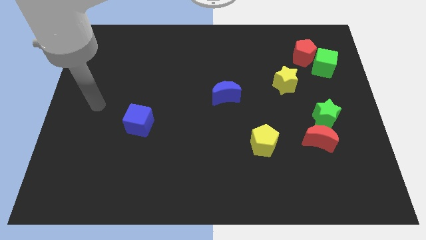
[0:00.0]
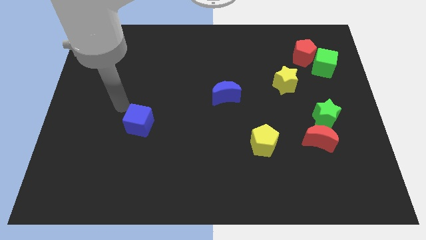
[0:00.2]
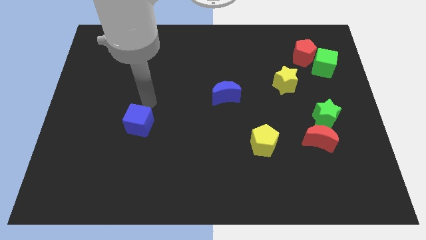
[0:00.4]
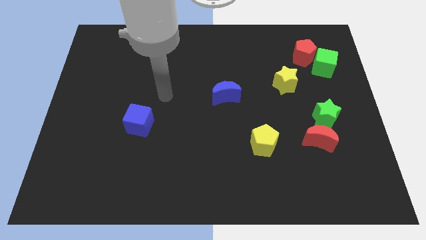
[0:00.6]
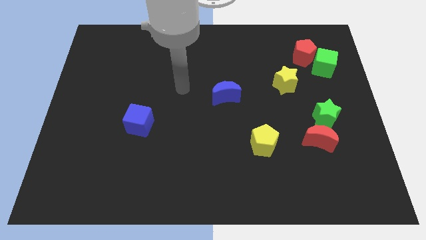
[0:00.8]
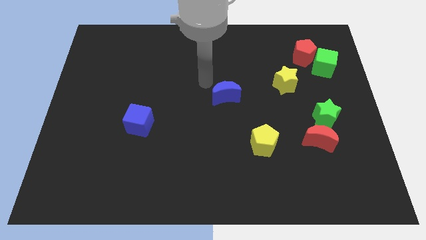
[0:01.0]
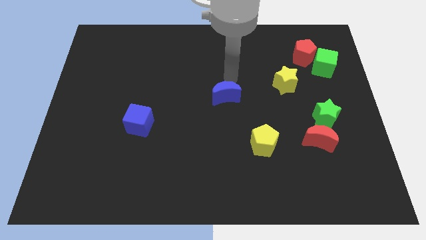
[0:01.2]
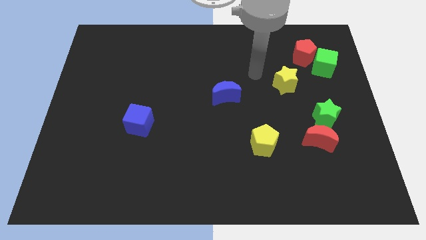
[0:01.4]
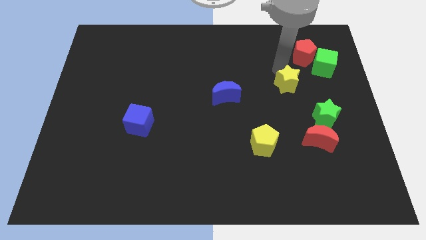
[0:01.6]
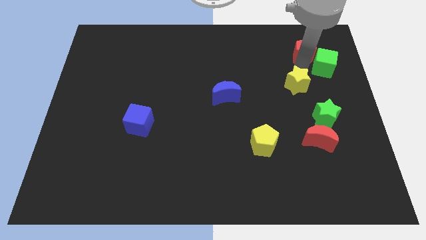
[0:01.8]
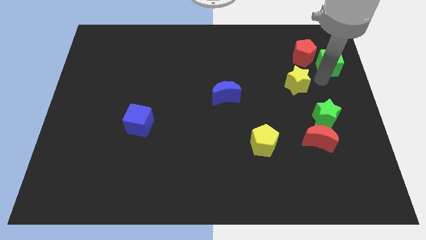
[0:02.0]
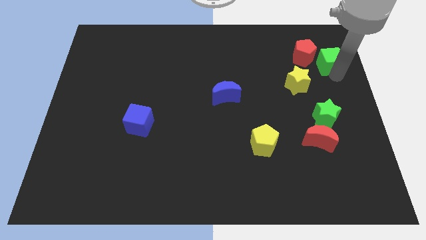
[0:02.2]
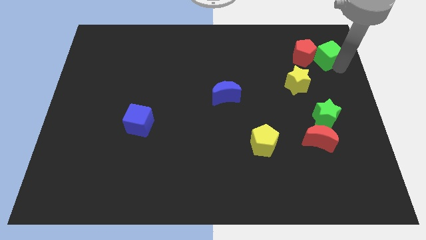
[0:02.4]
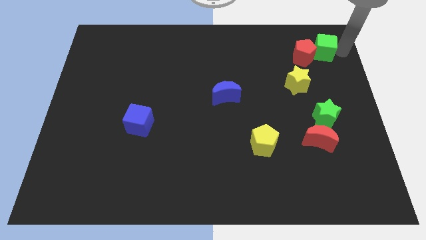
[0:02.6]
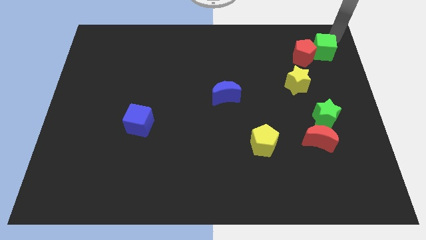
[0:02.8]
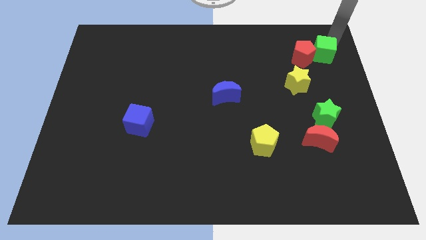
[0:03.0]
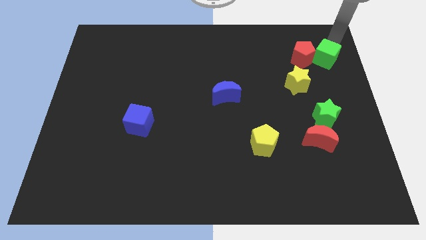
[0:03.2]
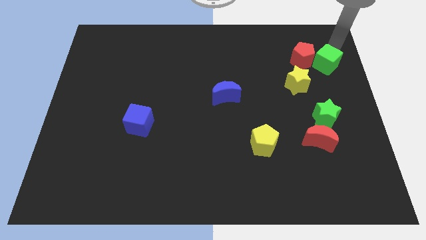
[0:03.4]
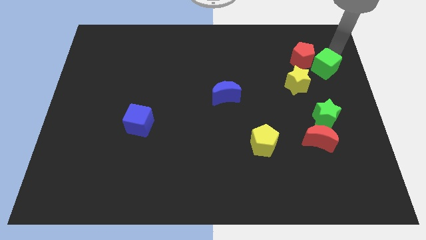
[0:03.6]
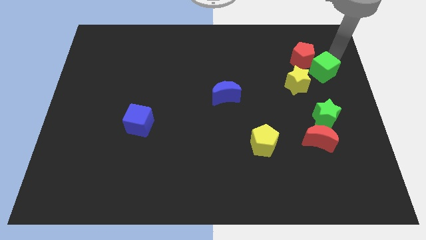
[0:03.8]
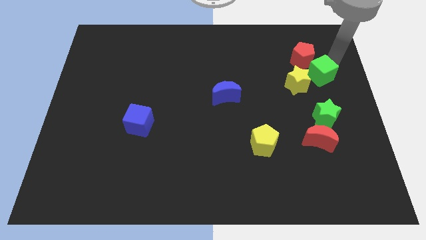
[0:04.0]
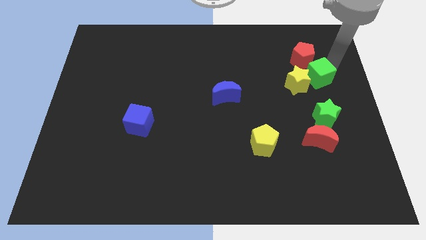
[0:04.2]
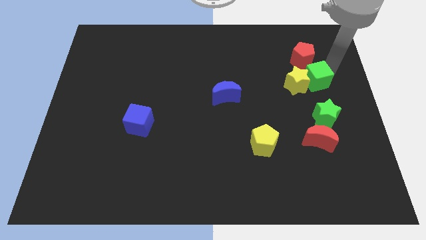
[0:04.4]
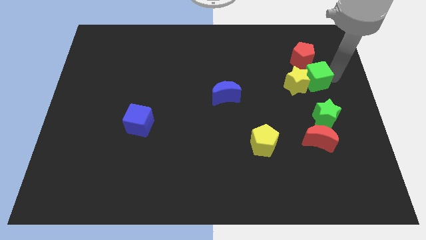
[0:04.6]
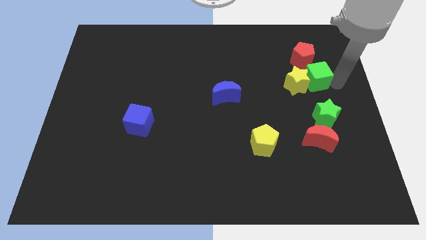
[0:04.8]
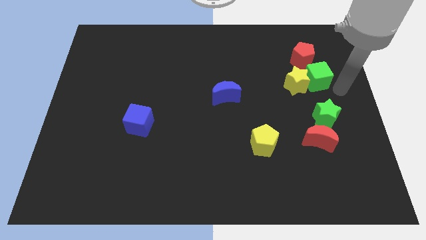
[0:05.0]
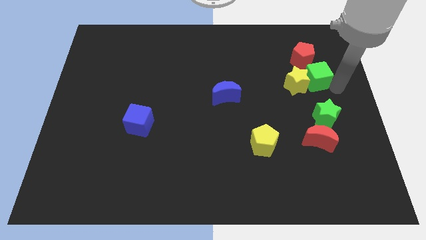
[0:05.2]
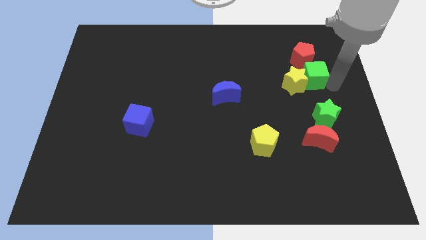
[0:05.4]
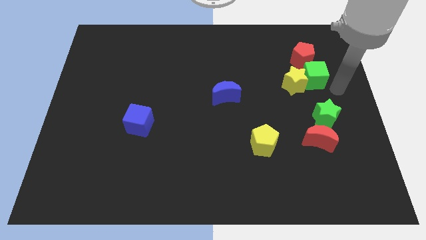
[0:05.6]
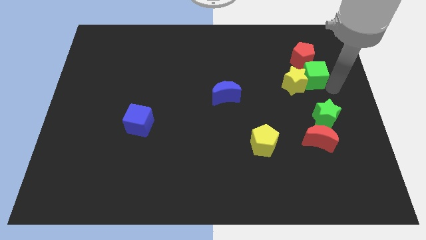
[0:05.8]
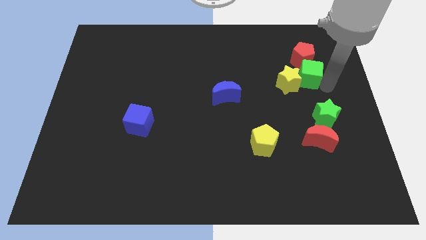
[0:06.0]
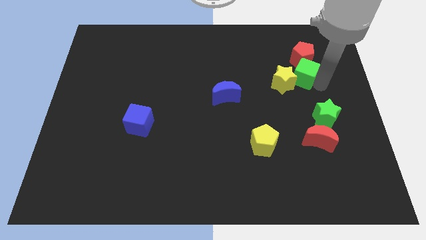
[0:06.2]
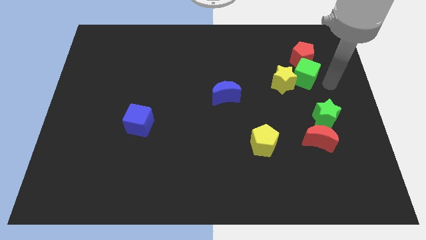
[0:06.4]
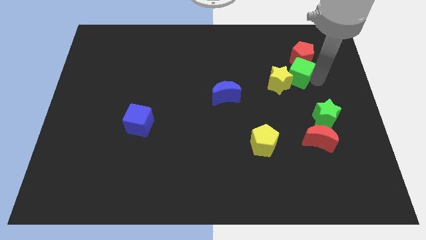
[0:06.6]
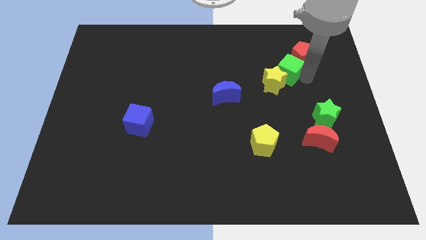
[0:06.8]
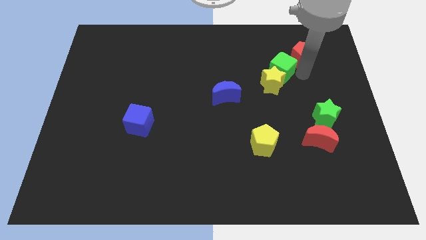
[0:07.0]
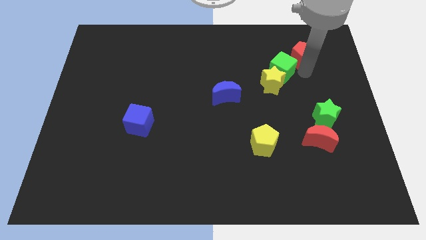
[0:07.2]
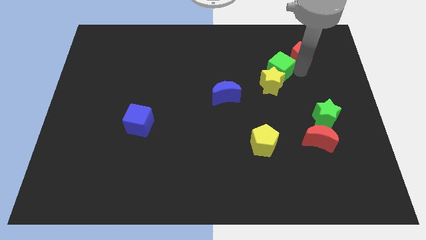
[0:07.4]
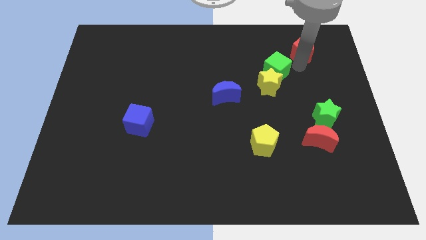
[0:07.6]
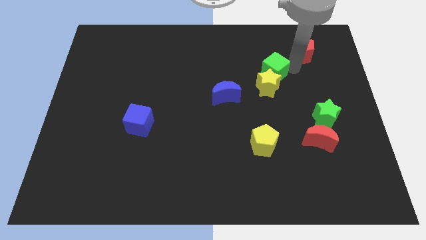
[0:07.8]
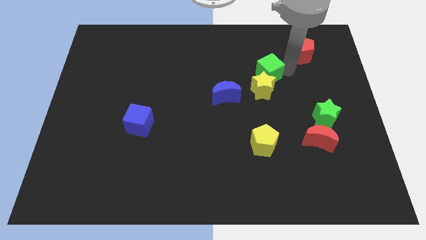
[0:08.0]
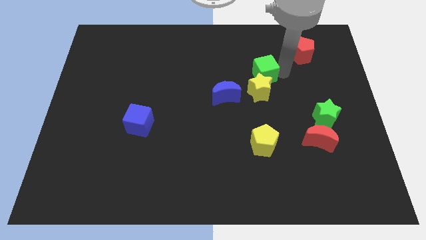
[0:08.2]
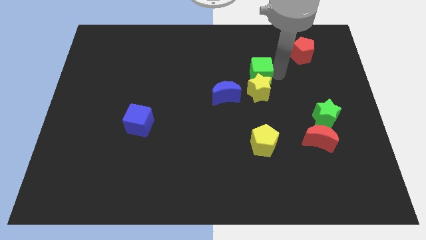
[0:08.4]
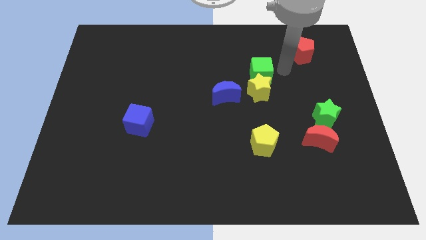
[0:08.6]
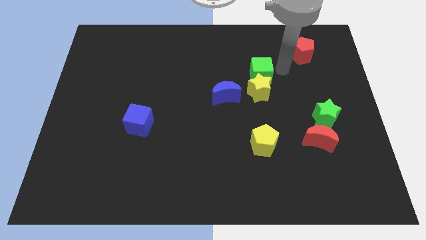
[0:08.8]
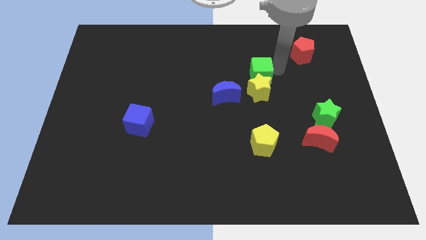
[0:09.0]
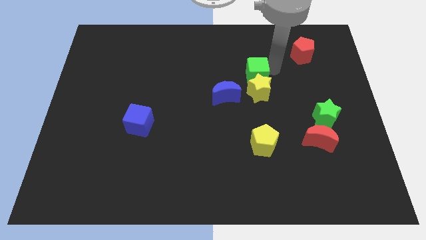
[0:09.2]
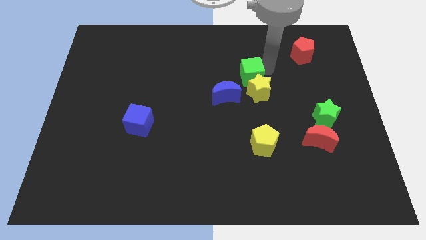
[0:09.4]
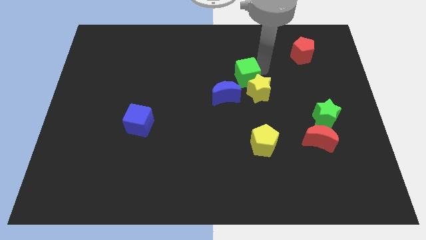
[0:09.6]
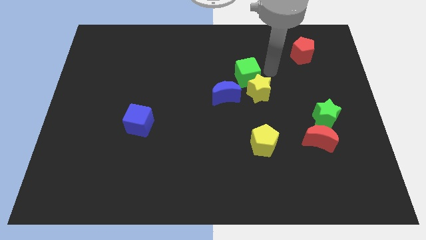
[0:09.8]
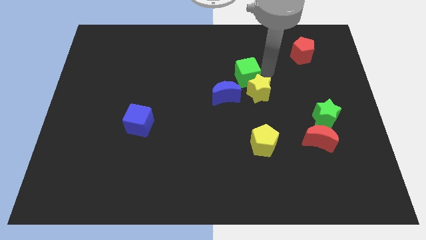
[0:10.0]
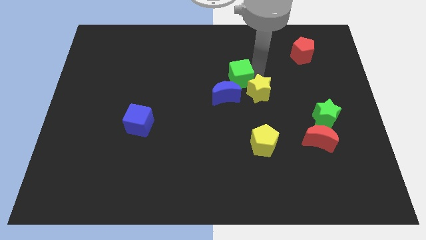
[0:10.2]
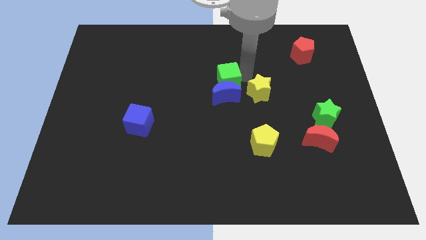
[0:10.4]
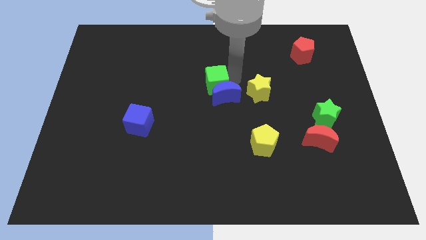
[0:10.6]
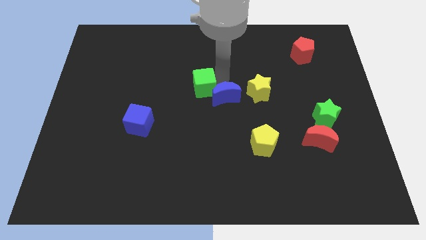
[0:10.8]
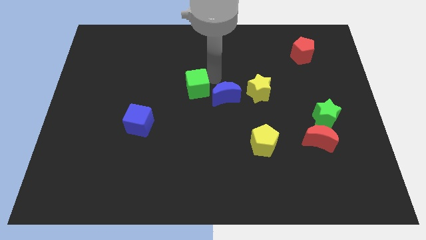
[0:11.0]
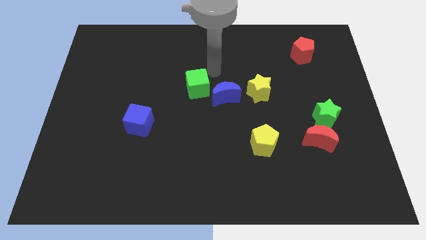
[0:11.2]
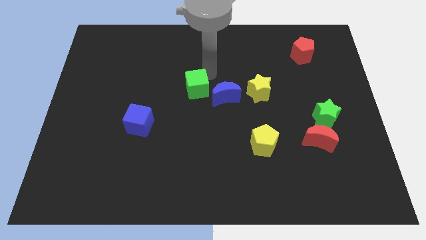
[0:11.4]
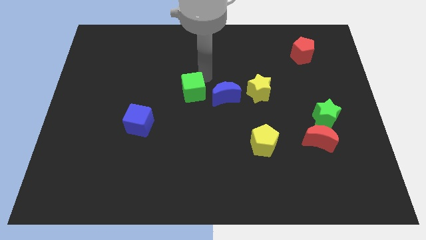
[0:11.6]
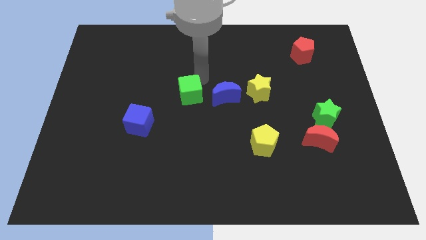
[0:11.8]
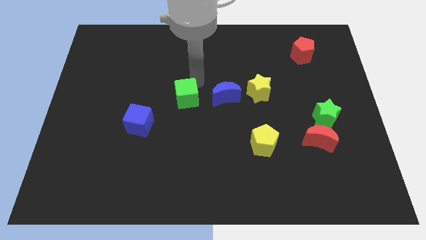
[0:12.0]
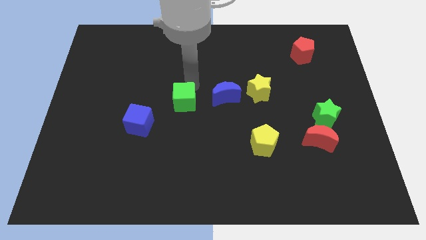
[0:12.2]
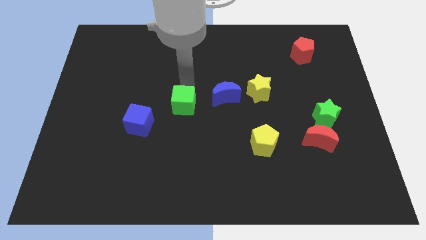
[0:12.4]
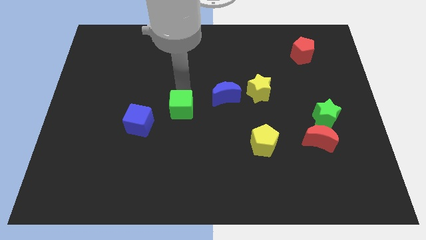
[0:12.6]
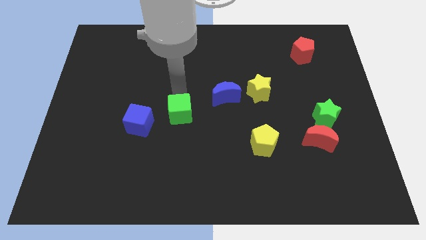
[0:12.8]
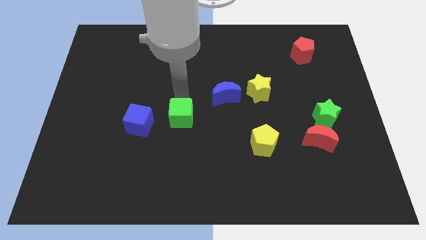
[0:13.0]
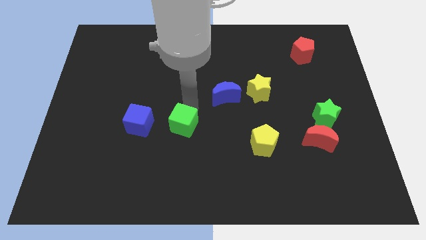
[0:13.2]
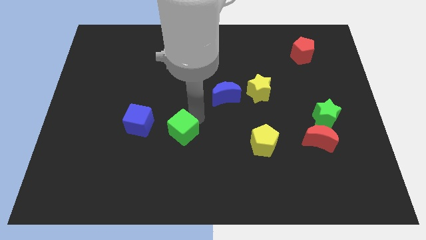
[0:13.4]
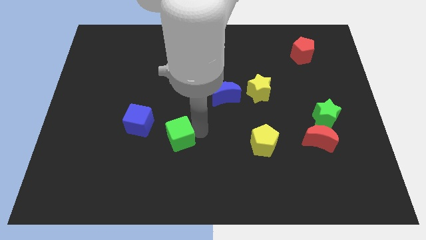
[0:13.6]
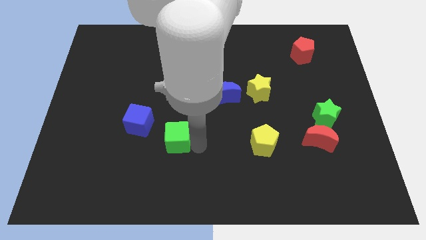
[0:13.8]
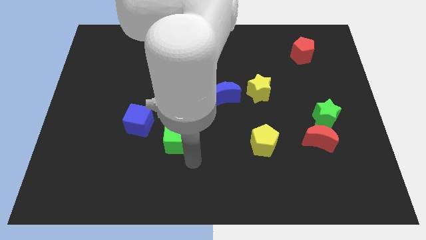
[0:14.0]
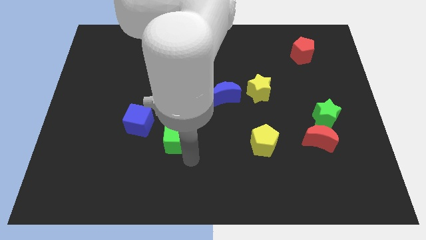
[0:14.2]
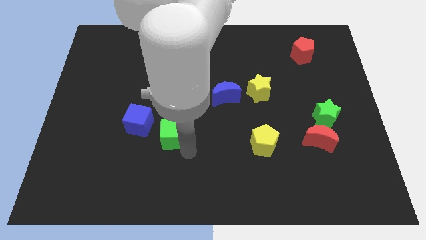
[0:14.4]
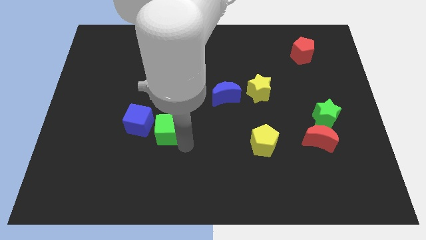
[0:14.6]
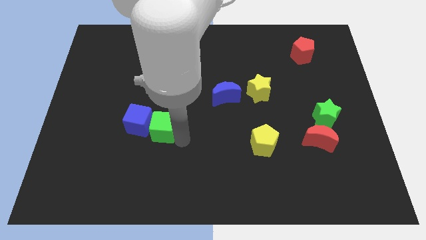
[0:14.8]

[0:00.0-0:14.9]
push the green cube towards the blue cube
